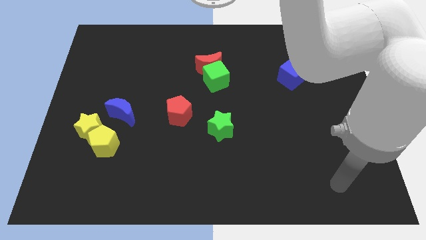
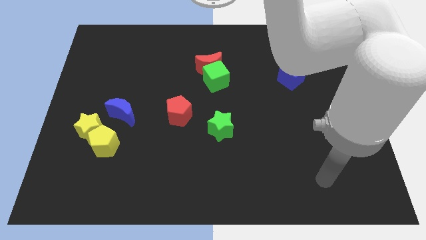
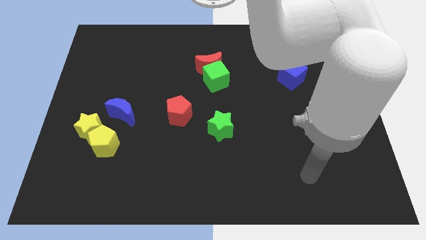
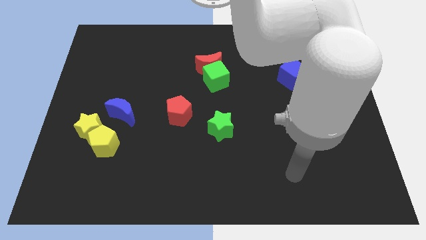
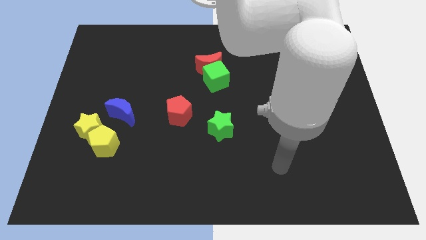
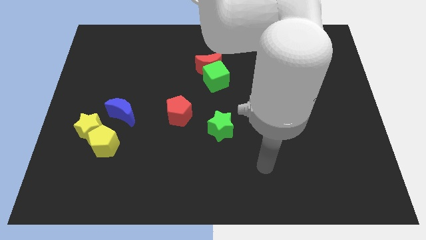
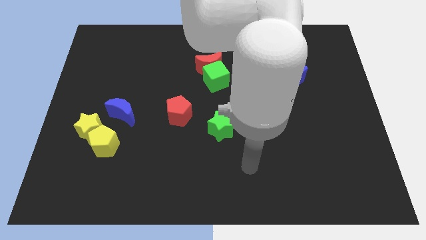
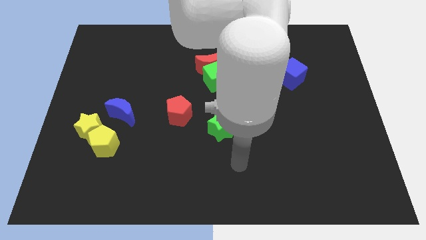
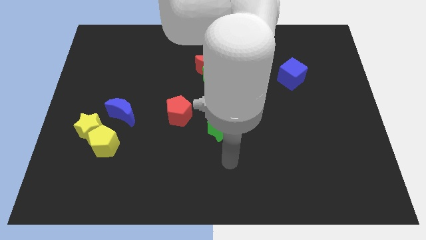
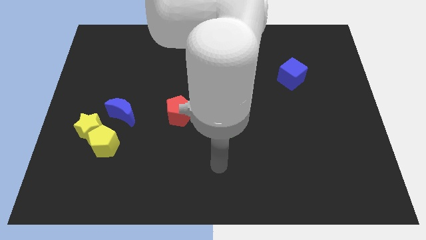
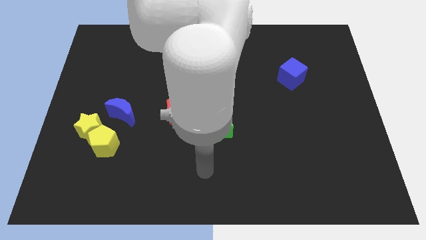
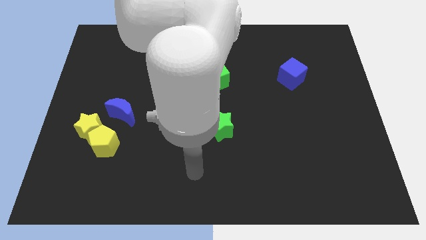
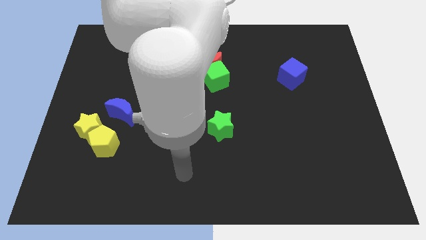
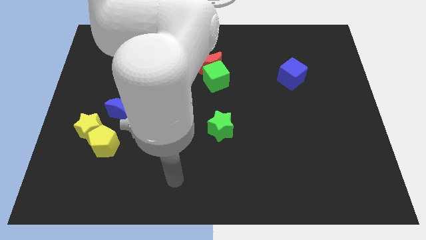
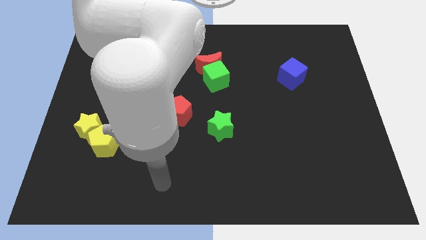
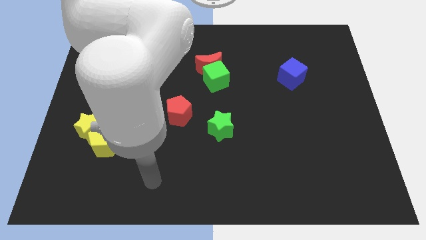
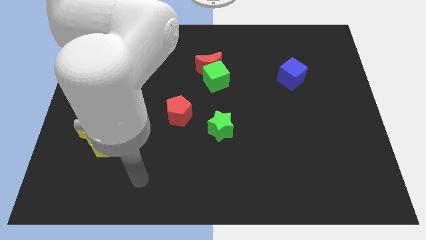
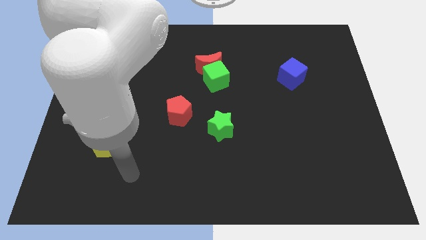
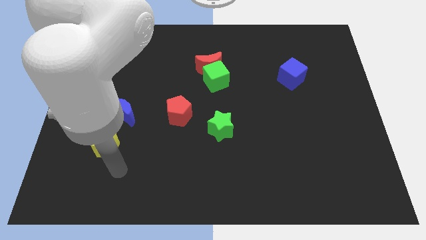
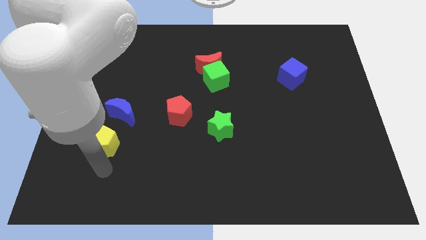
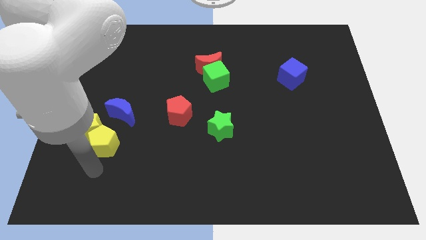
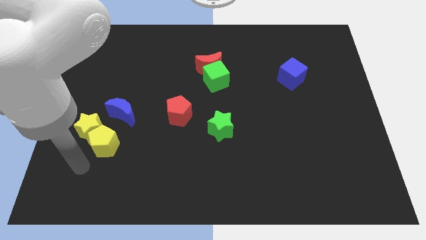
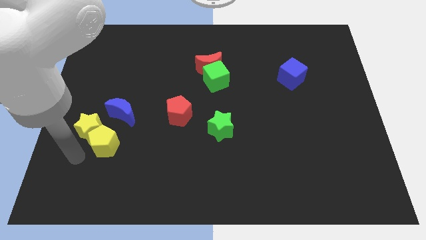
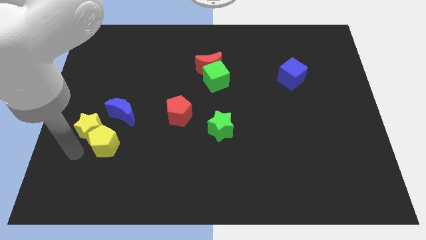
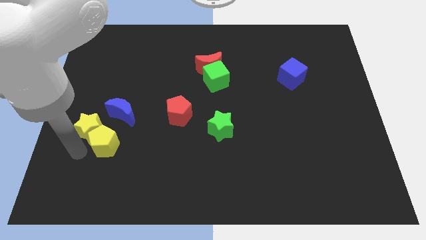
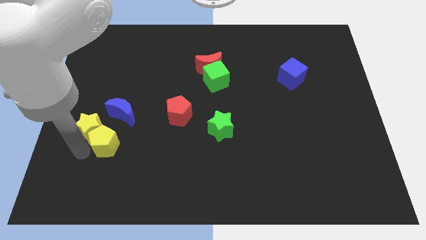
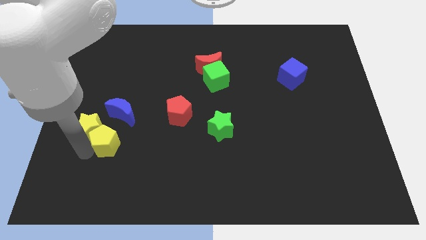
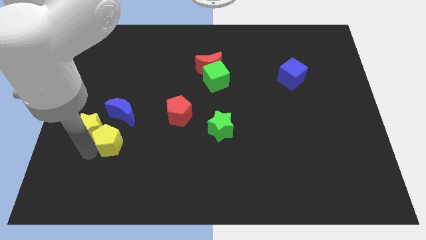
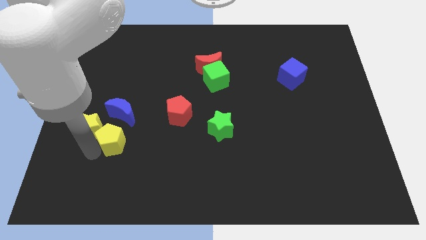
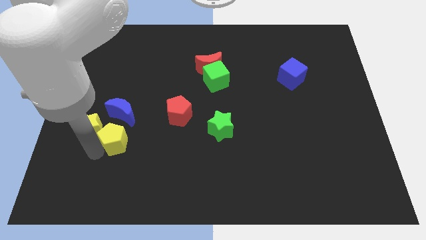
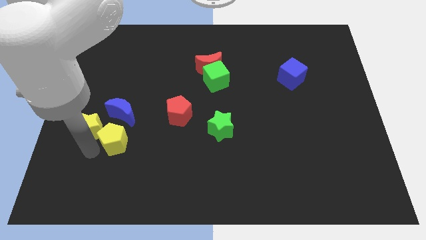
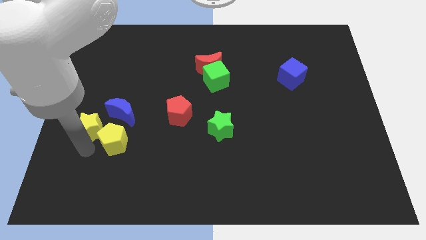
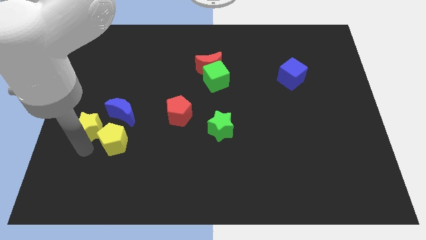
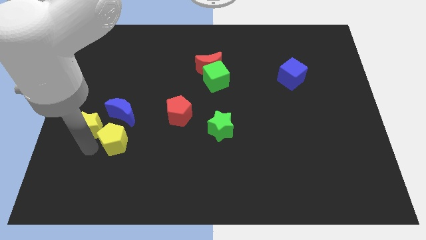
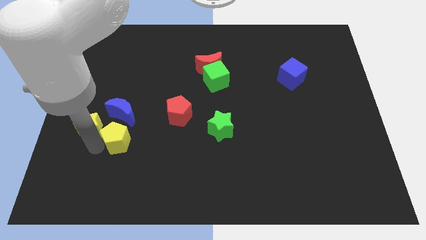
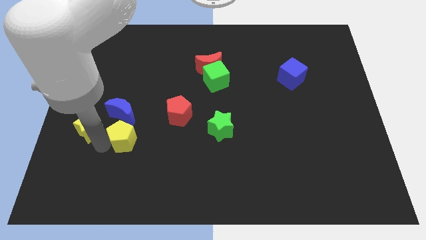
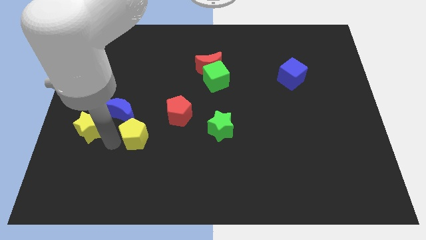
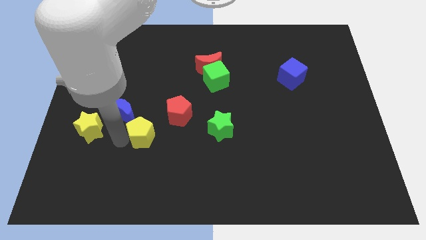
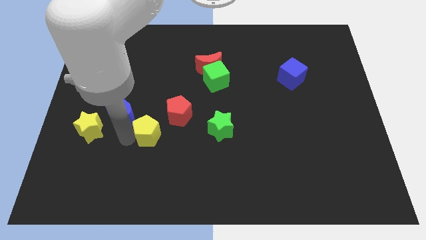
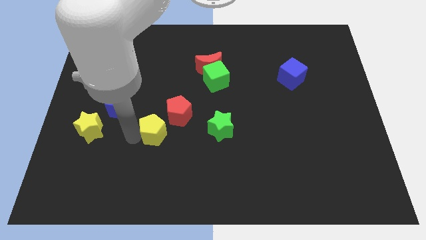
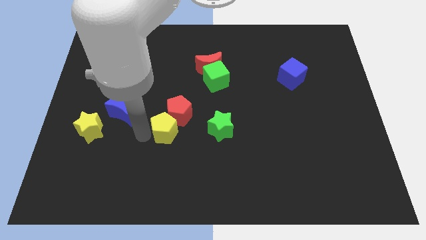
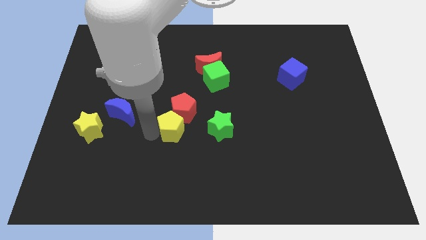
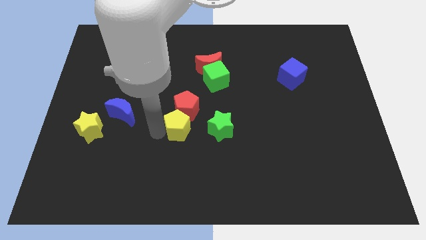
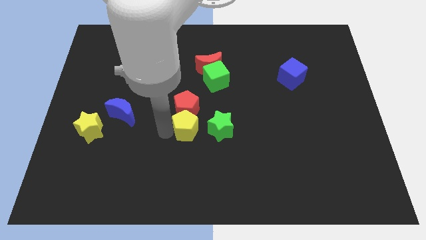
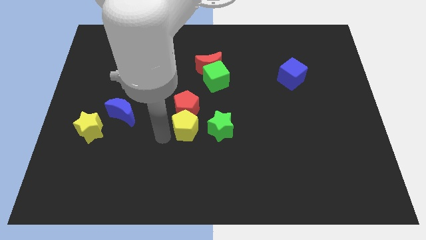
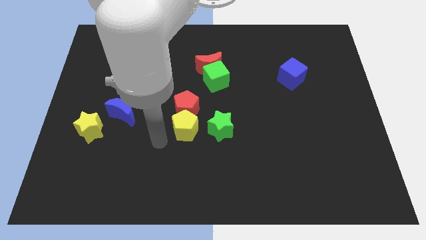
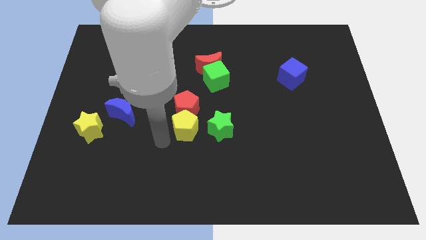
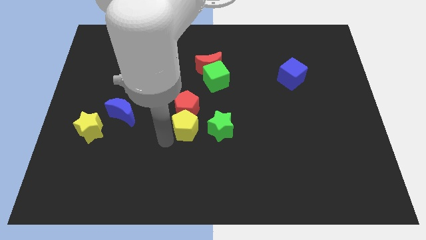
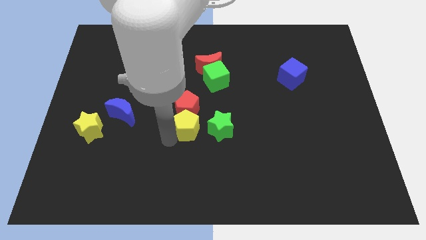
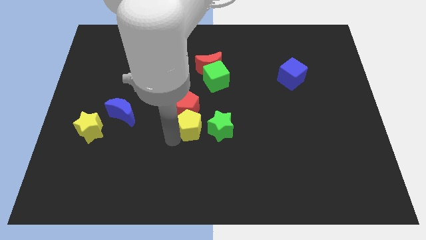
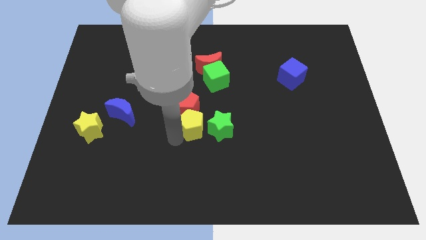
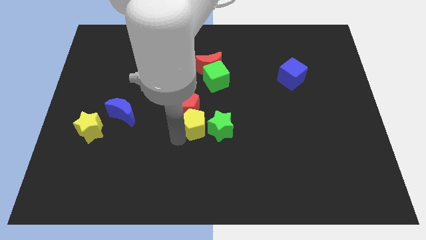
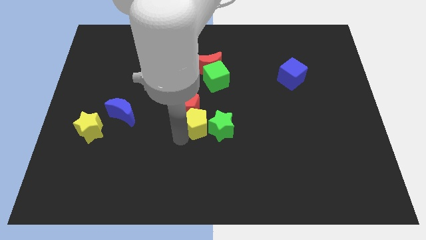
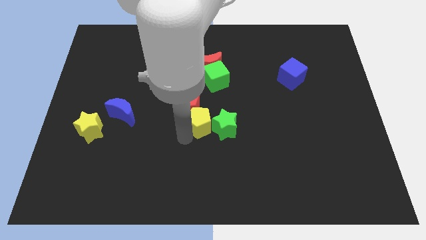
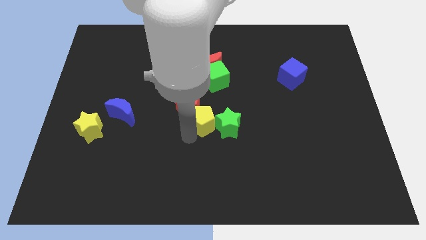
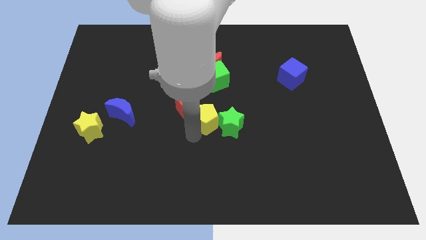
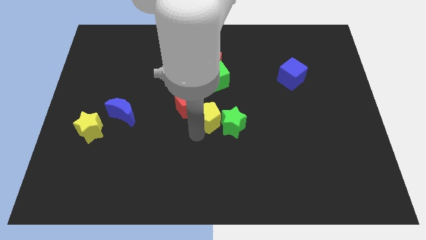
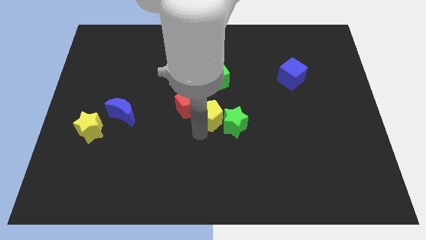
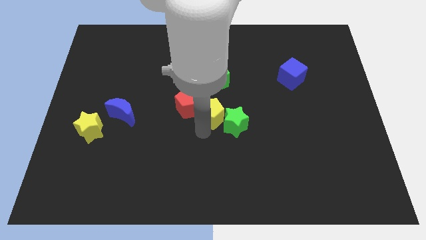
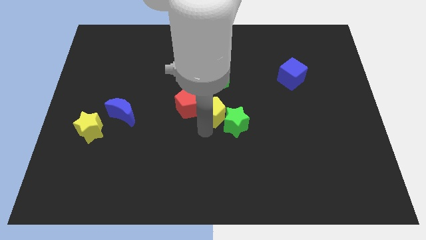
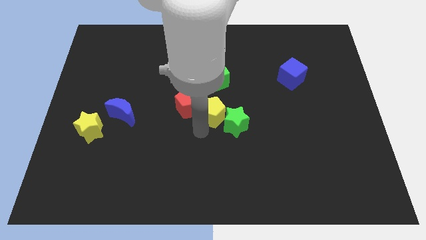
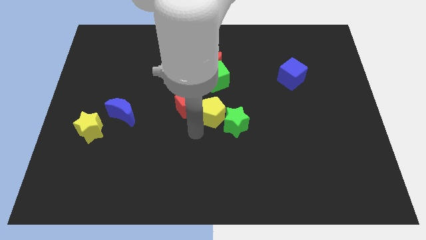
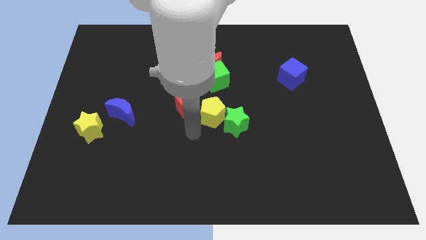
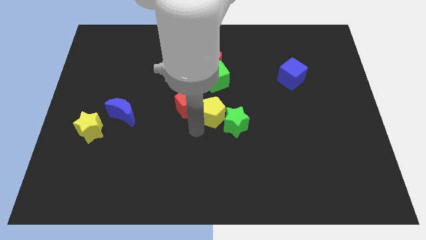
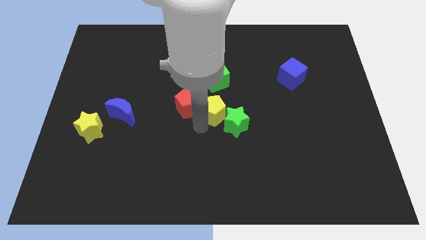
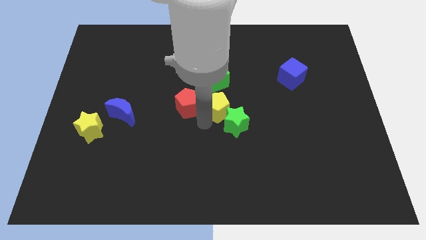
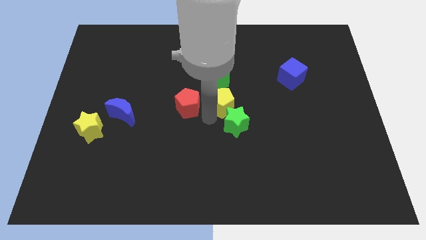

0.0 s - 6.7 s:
push the yellow pentagon diagonally down and to the right of the green cube

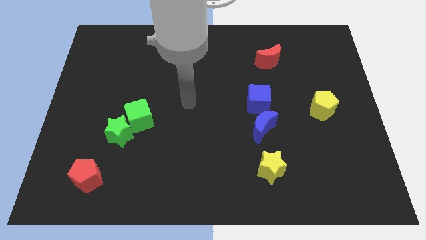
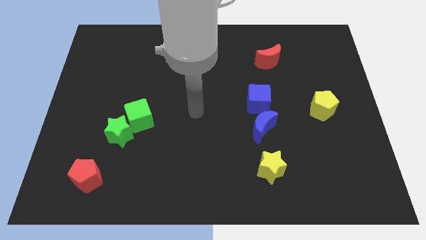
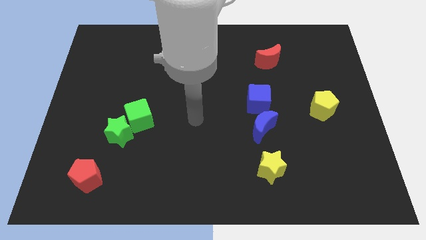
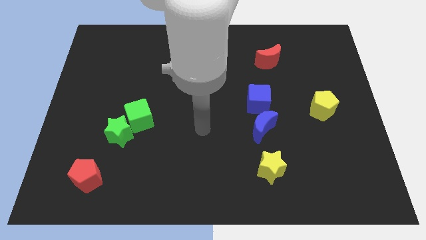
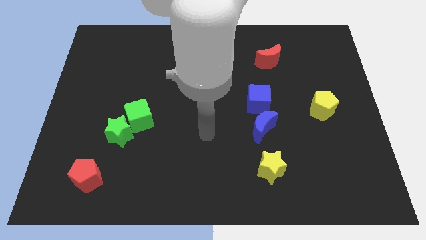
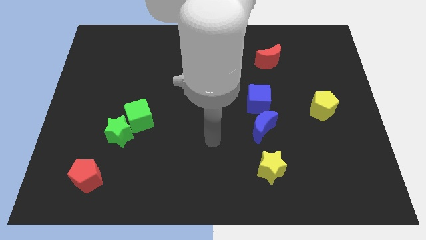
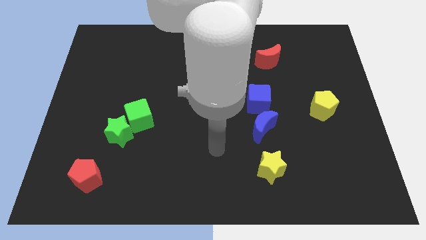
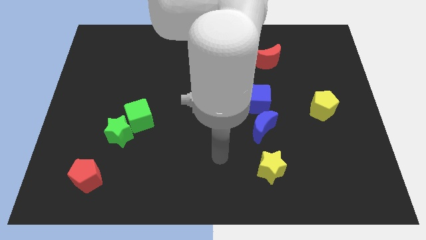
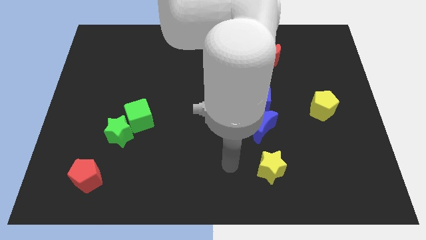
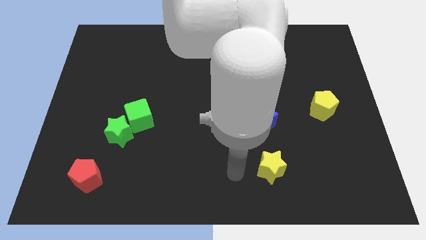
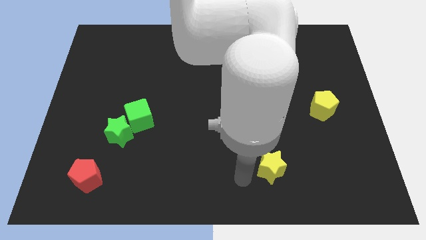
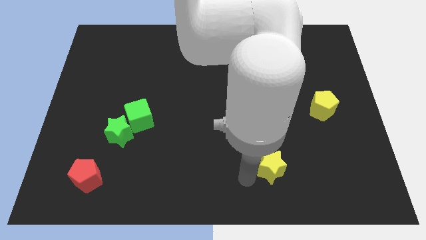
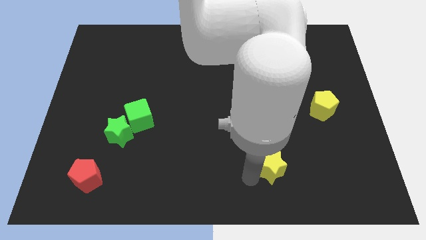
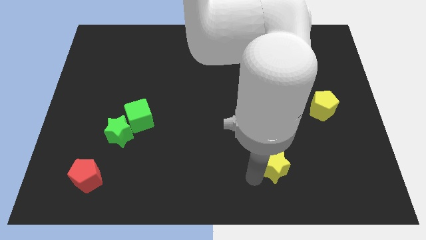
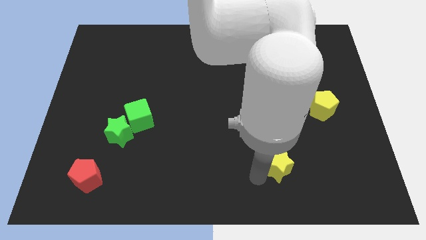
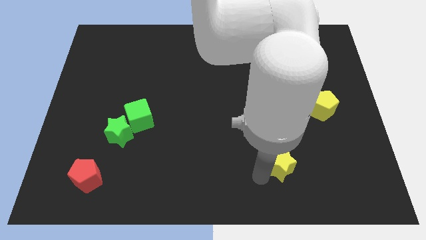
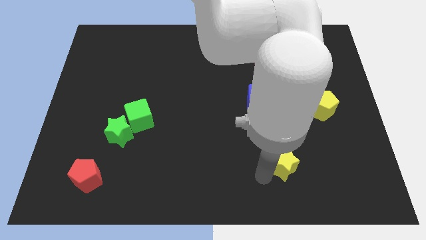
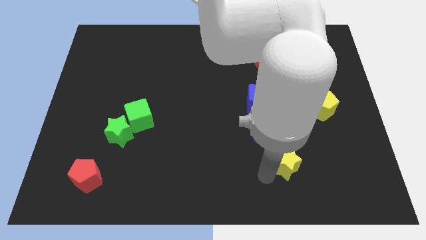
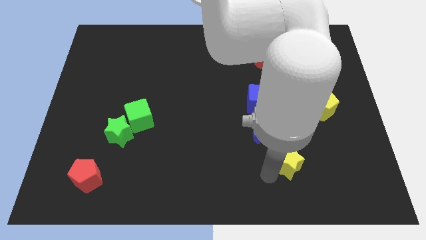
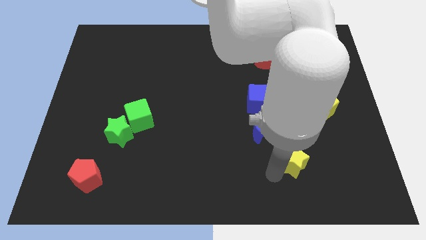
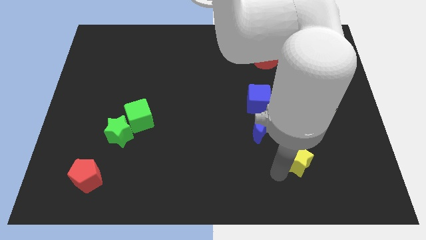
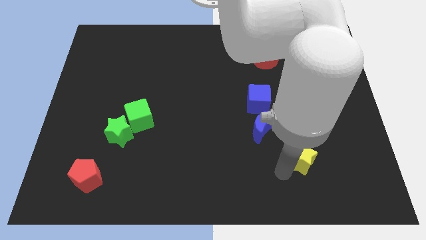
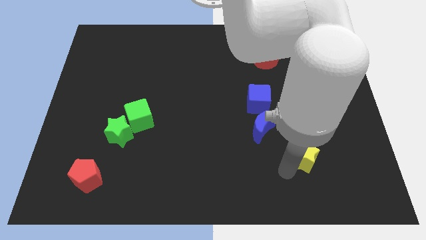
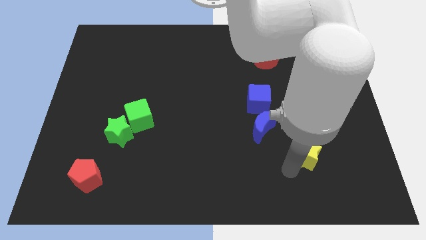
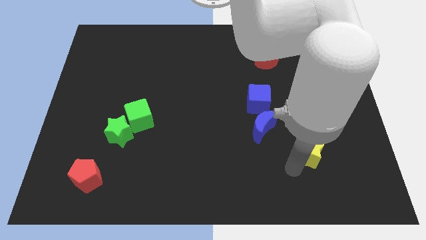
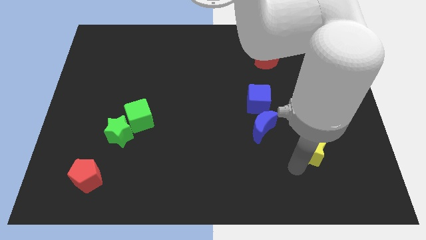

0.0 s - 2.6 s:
push the yellow star to the bottom side of the yellow pentagon
